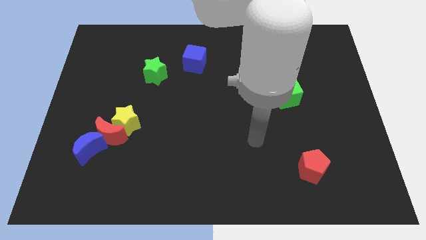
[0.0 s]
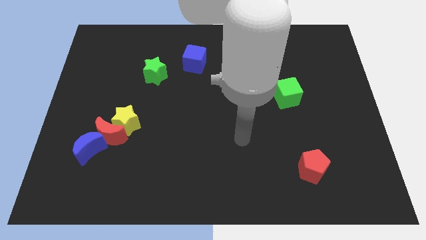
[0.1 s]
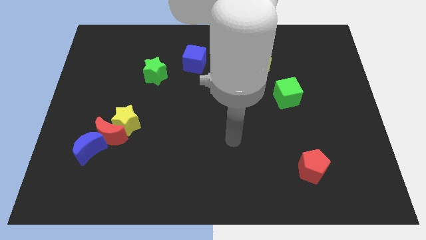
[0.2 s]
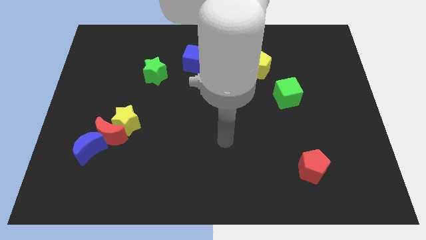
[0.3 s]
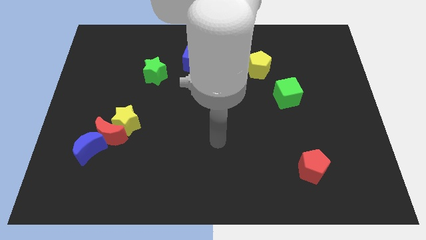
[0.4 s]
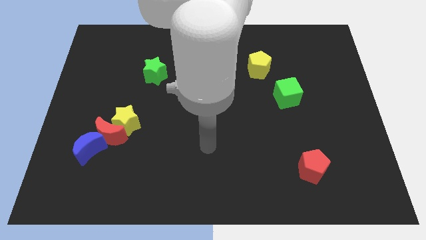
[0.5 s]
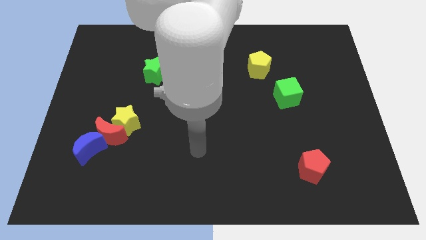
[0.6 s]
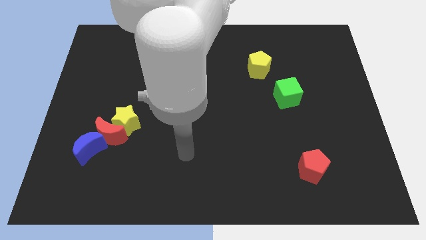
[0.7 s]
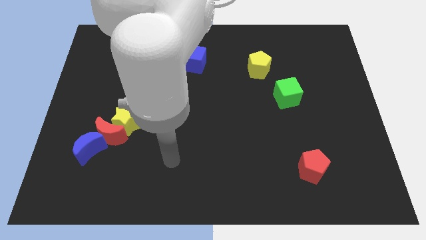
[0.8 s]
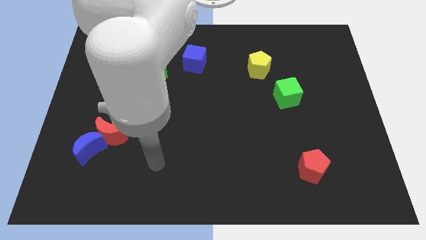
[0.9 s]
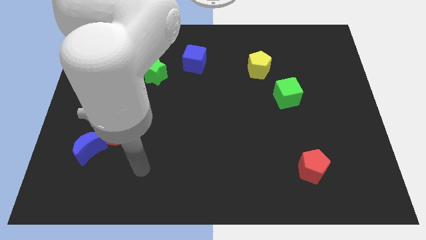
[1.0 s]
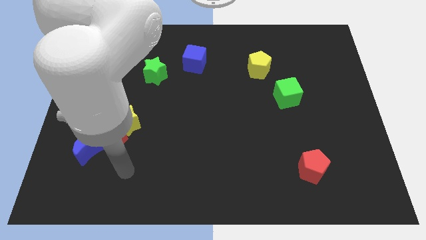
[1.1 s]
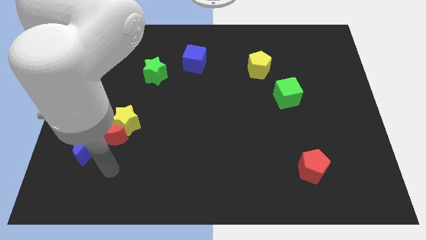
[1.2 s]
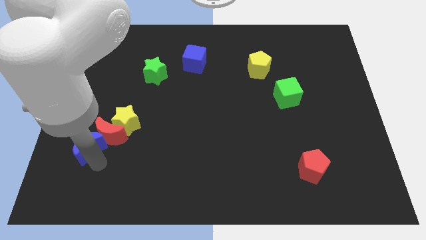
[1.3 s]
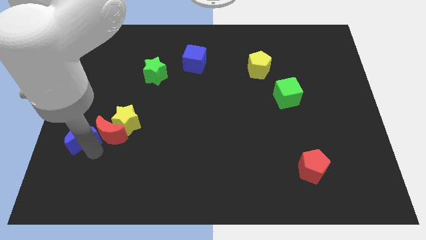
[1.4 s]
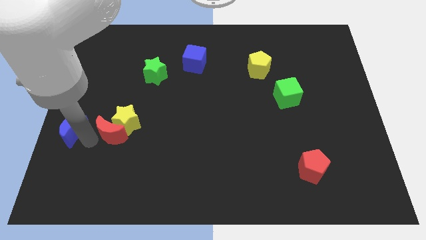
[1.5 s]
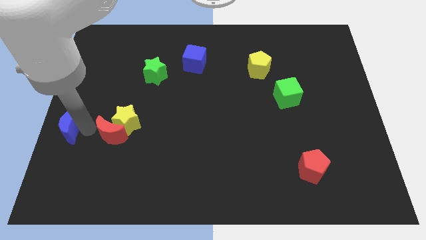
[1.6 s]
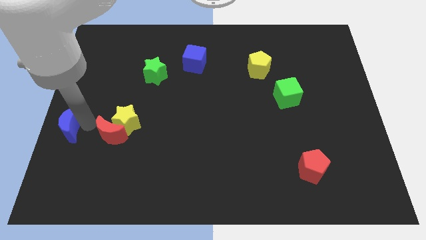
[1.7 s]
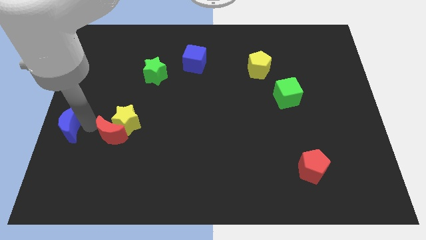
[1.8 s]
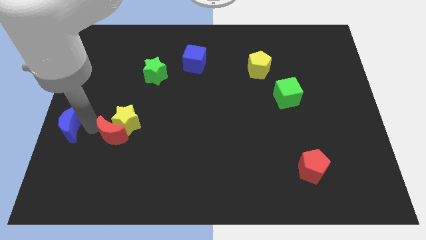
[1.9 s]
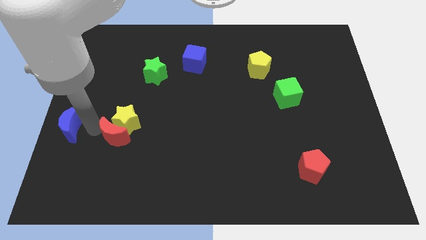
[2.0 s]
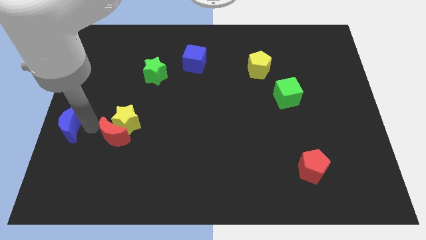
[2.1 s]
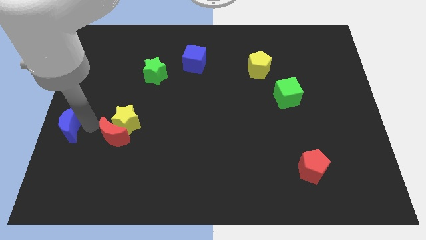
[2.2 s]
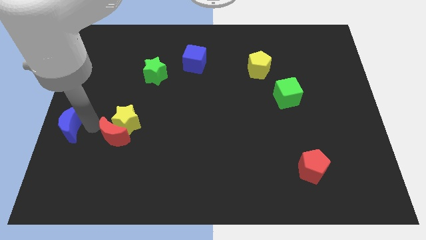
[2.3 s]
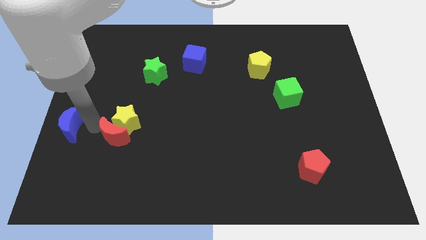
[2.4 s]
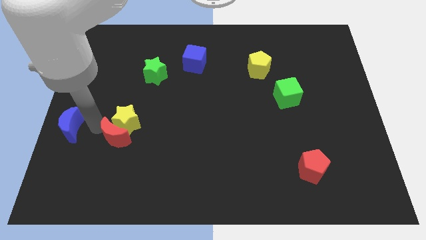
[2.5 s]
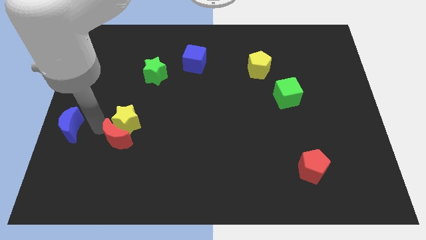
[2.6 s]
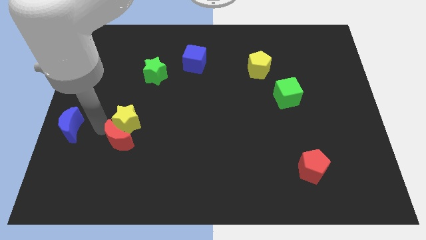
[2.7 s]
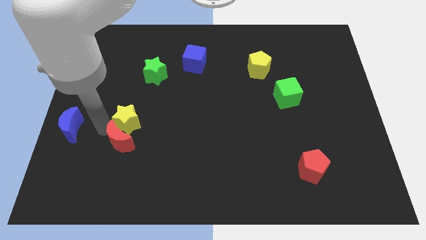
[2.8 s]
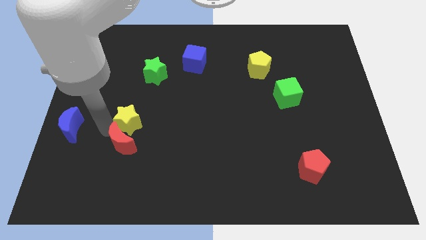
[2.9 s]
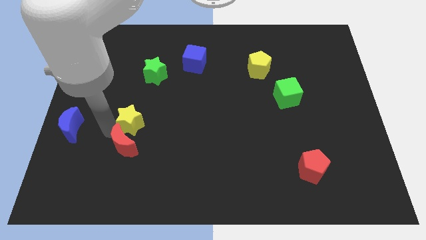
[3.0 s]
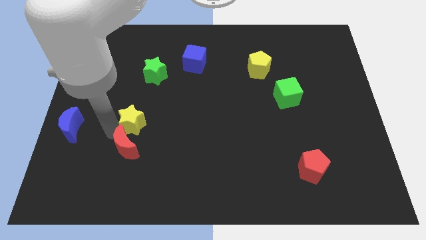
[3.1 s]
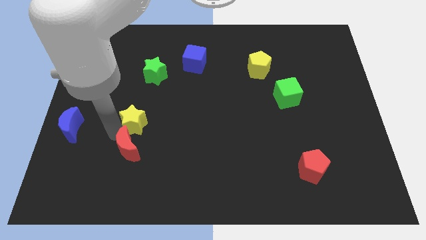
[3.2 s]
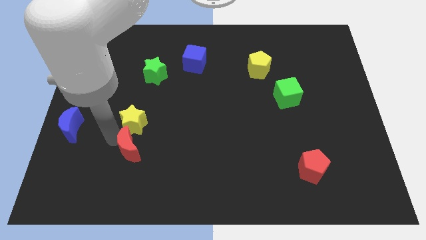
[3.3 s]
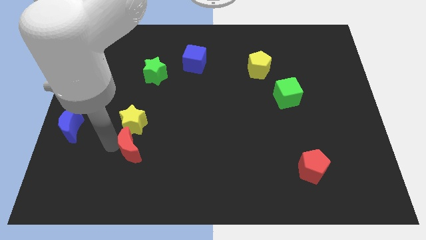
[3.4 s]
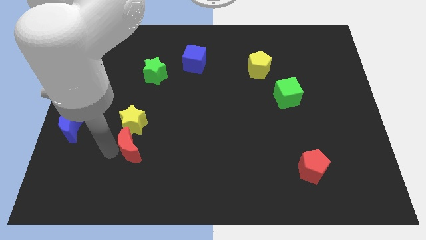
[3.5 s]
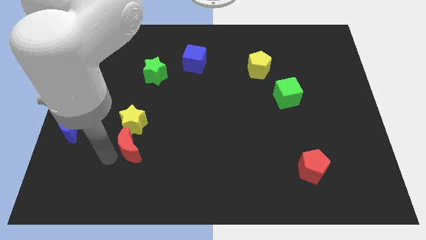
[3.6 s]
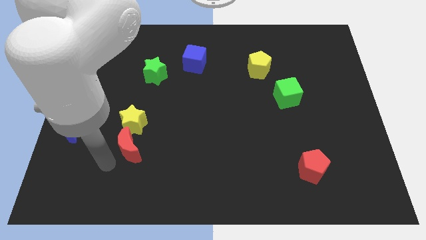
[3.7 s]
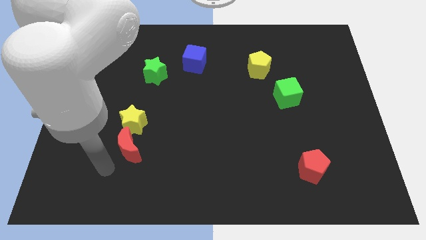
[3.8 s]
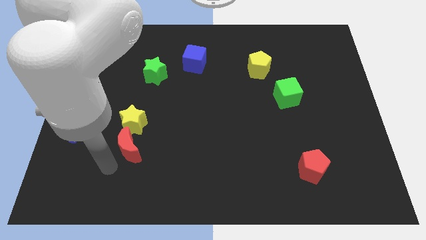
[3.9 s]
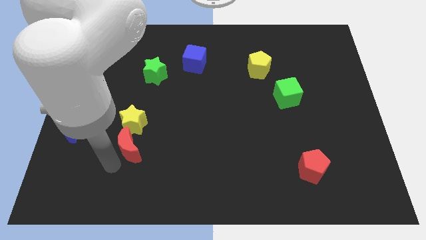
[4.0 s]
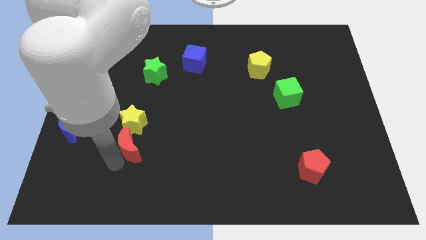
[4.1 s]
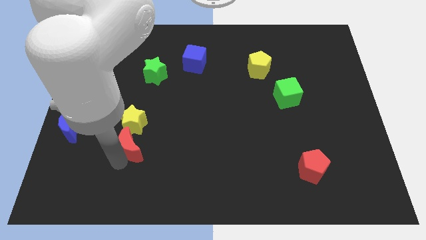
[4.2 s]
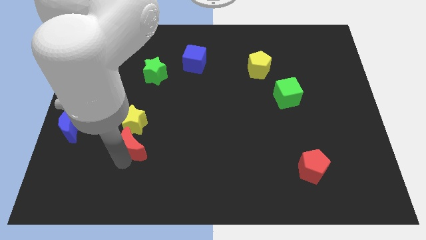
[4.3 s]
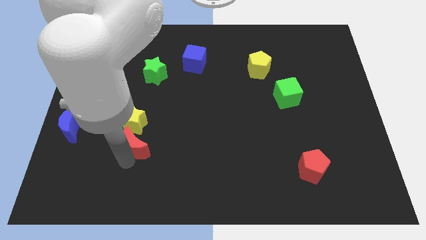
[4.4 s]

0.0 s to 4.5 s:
pull the red moon apart from the yellow star and blue moon

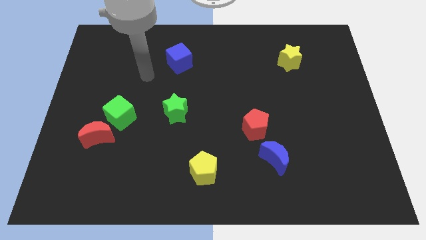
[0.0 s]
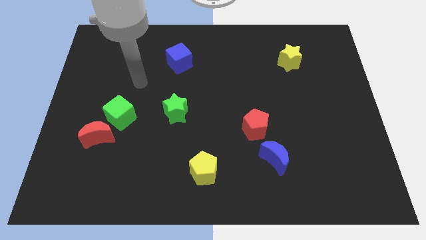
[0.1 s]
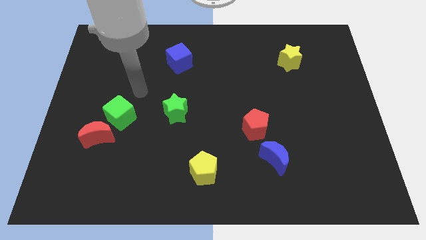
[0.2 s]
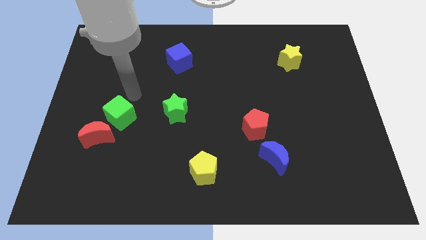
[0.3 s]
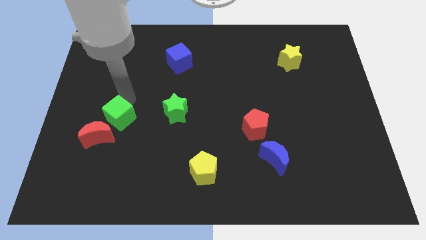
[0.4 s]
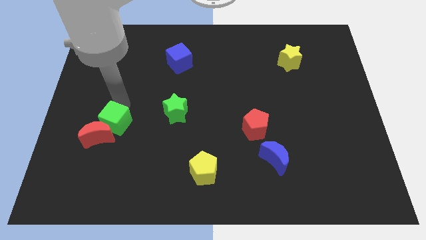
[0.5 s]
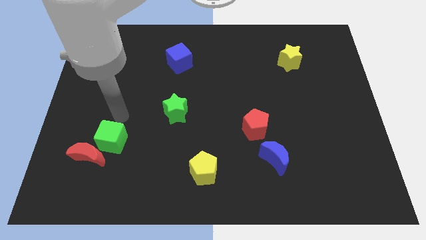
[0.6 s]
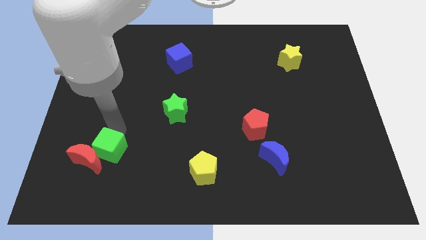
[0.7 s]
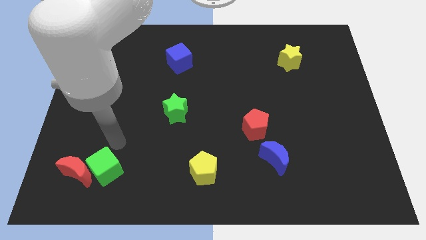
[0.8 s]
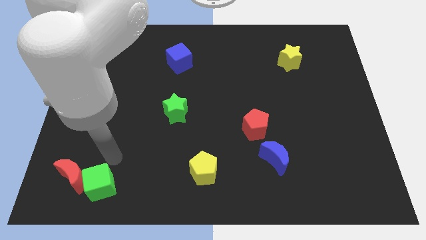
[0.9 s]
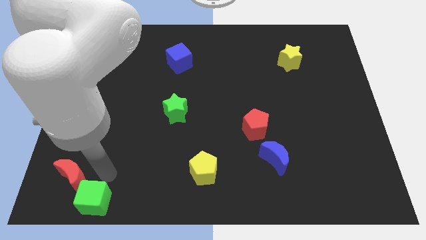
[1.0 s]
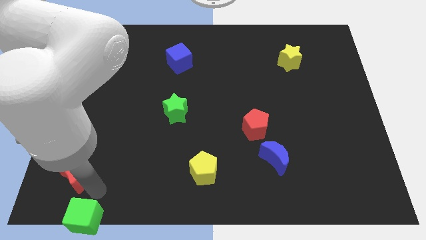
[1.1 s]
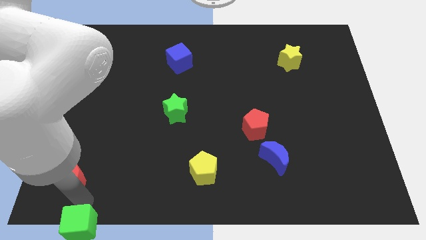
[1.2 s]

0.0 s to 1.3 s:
pull the red moon apart from the green cube

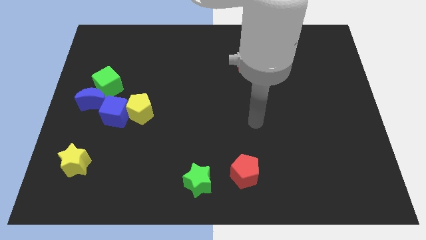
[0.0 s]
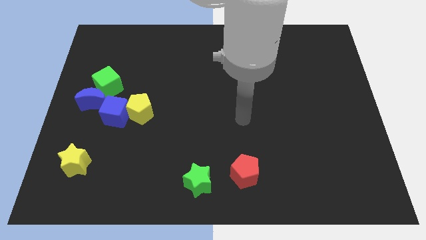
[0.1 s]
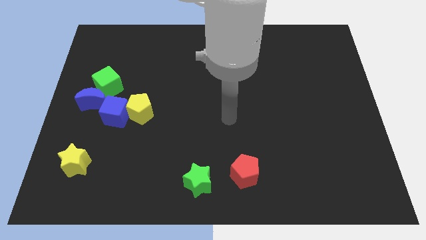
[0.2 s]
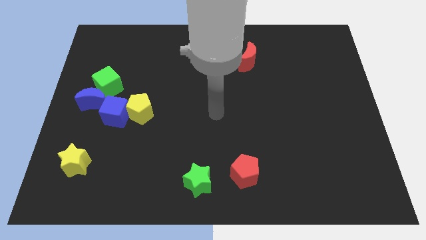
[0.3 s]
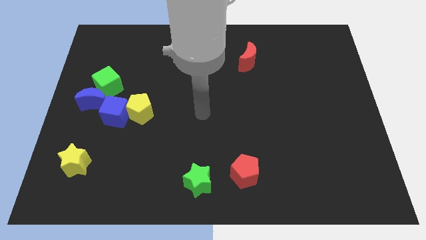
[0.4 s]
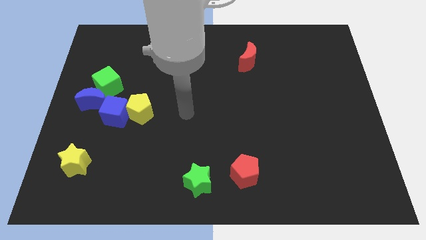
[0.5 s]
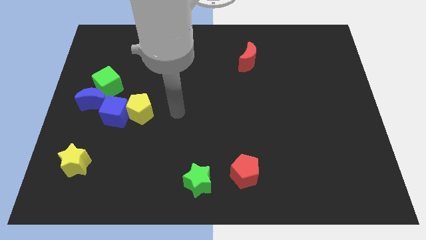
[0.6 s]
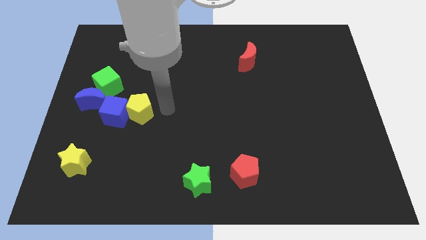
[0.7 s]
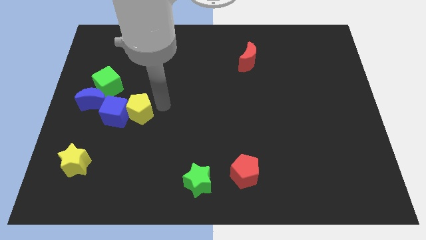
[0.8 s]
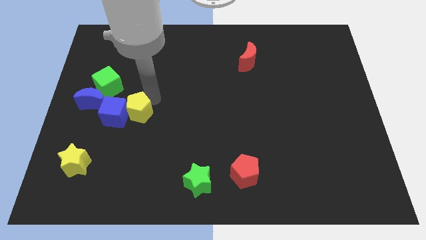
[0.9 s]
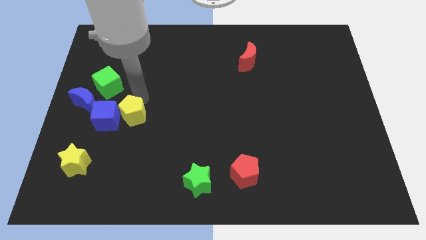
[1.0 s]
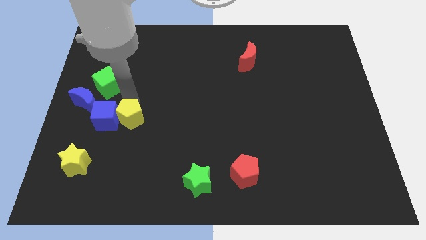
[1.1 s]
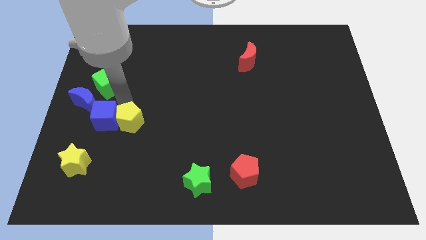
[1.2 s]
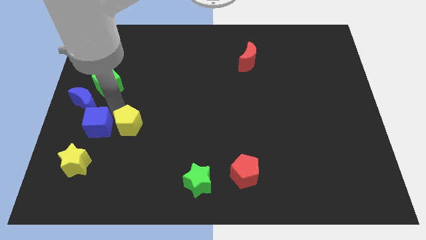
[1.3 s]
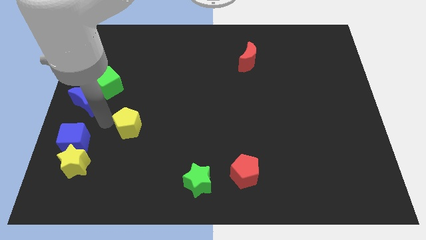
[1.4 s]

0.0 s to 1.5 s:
separate the yellow pentagon from the blue cube

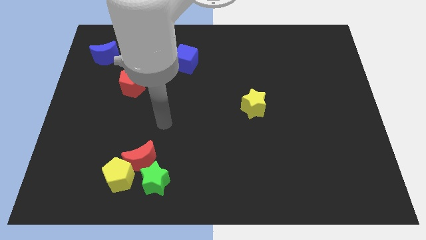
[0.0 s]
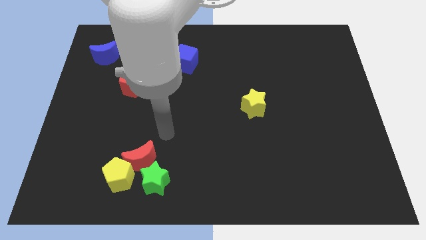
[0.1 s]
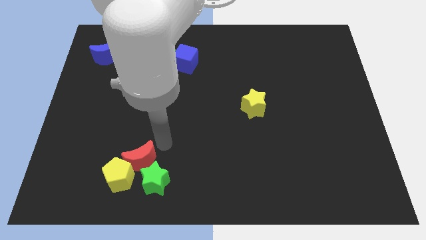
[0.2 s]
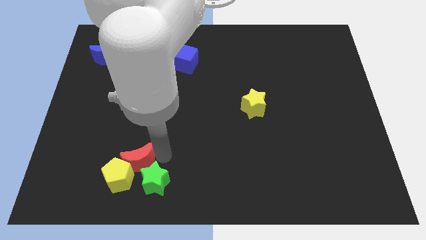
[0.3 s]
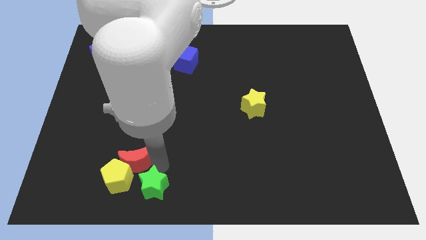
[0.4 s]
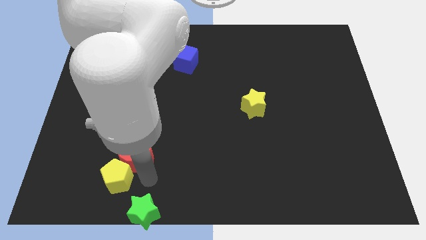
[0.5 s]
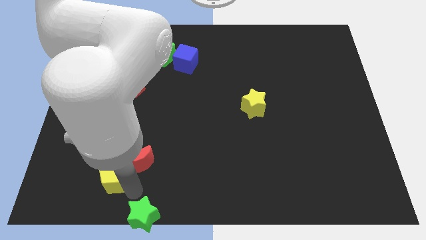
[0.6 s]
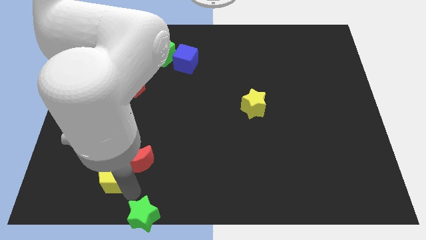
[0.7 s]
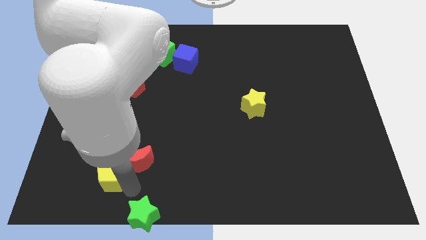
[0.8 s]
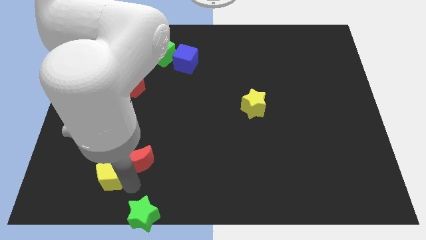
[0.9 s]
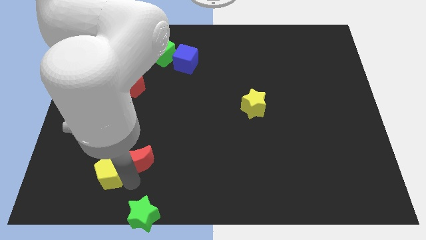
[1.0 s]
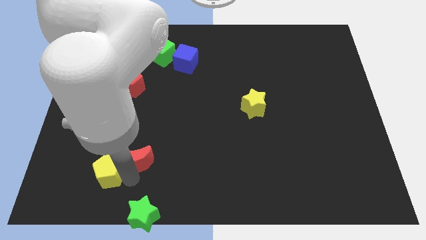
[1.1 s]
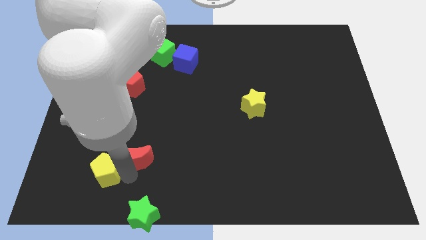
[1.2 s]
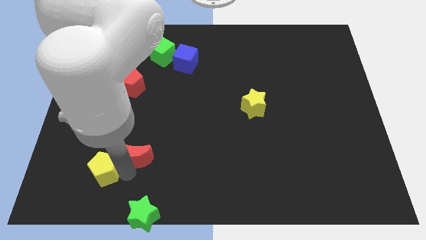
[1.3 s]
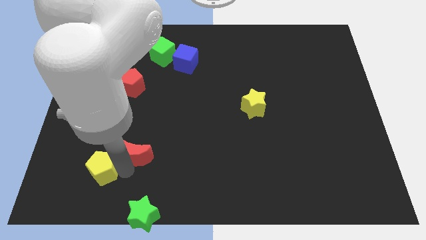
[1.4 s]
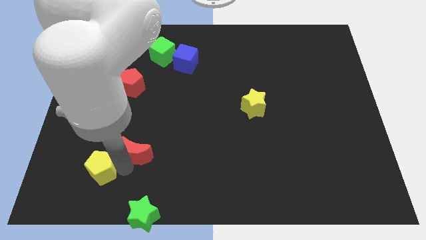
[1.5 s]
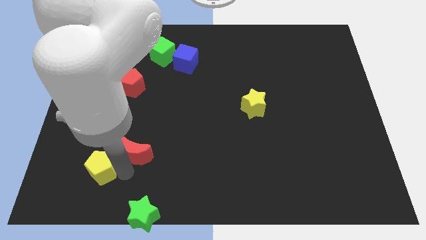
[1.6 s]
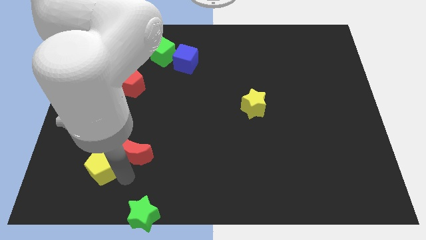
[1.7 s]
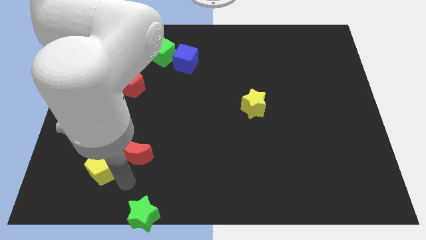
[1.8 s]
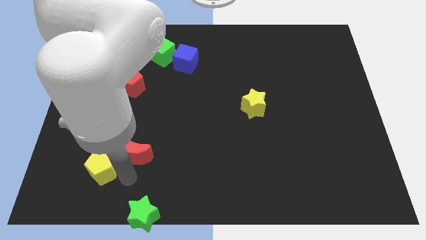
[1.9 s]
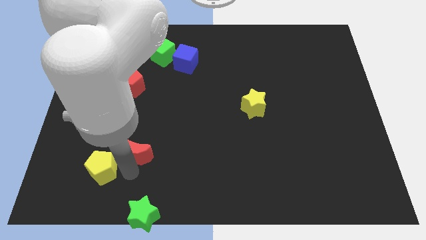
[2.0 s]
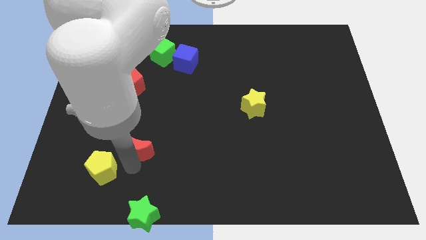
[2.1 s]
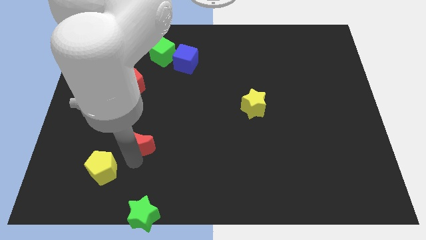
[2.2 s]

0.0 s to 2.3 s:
pull the red moon apart from the yellow pentagon and green star

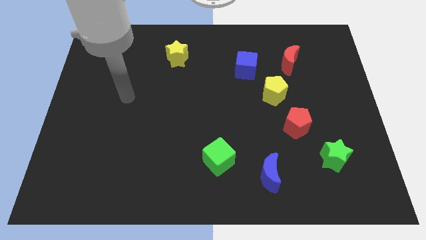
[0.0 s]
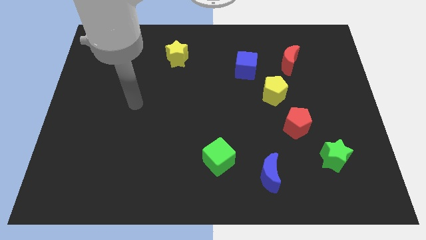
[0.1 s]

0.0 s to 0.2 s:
pull the red pentagon apart from the yellow pentagon
